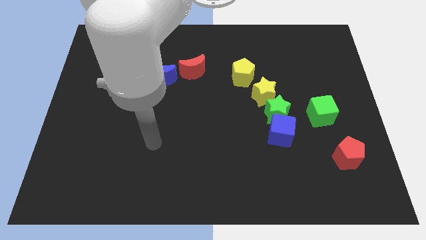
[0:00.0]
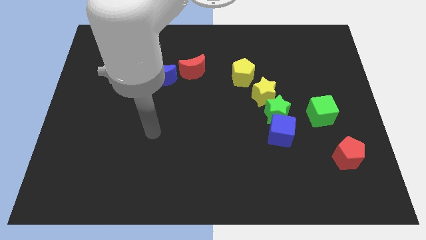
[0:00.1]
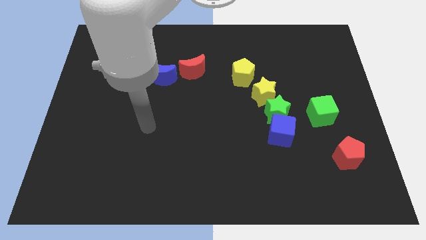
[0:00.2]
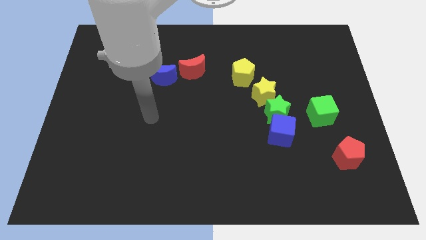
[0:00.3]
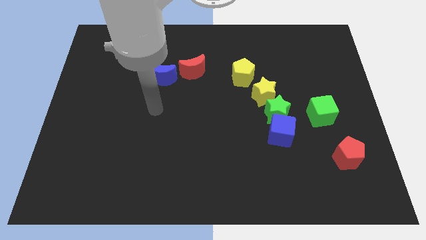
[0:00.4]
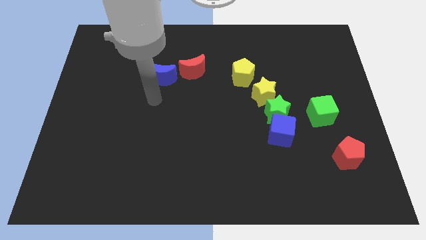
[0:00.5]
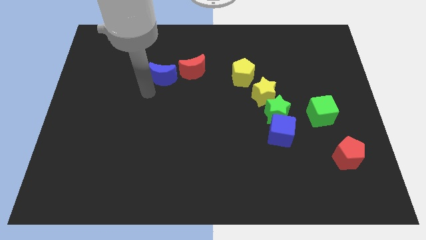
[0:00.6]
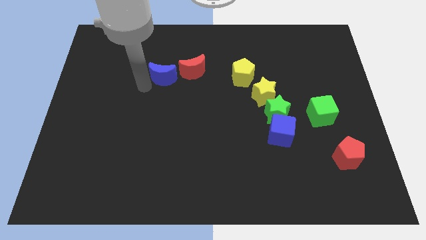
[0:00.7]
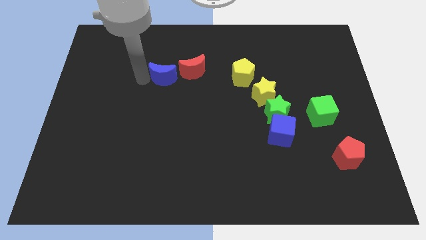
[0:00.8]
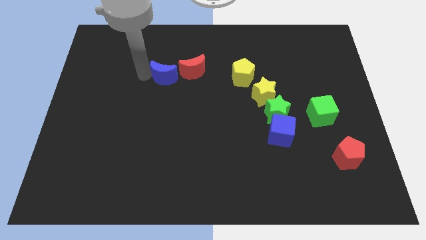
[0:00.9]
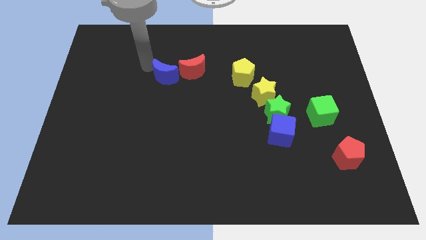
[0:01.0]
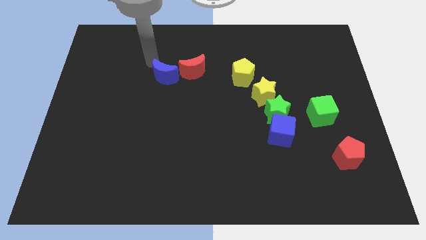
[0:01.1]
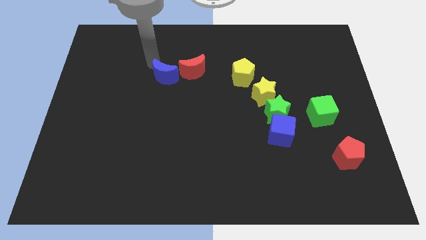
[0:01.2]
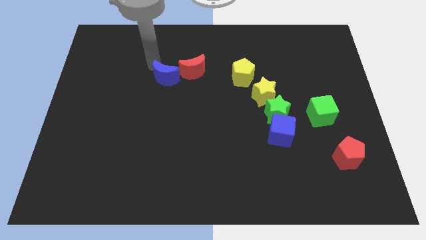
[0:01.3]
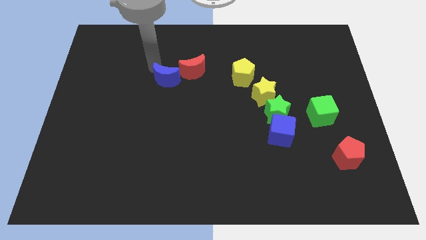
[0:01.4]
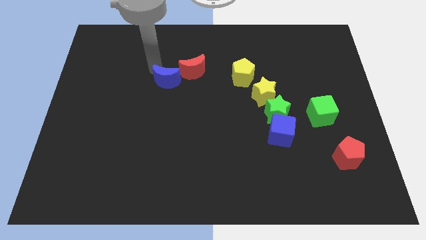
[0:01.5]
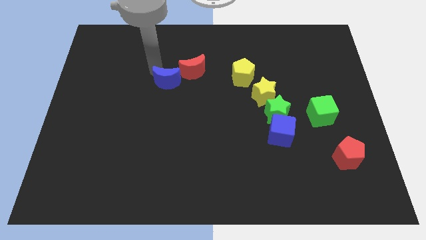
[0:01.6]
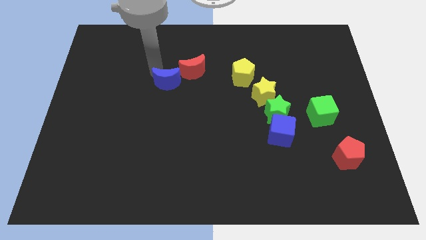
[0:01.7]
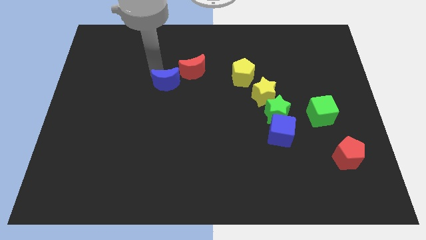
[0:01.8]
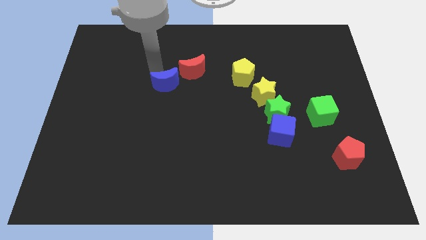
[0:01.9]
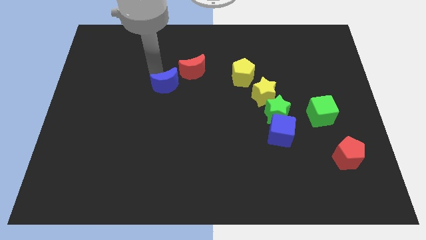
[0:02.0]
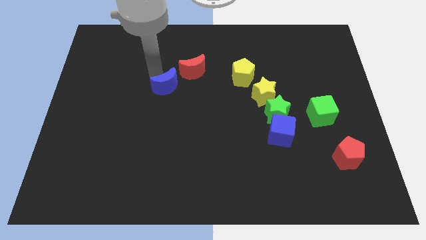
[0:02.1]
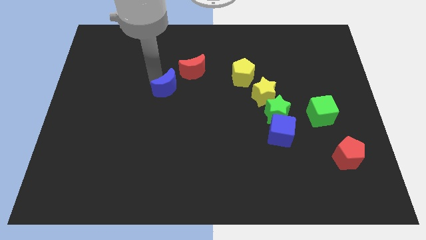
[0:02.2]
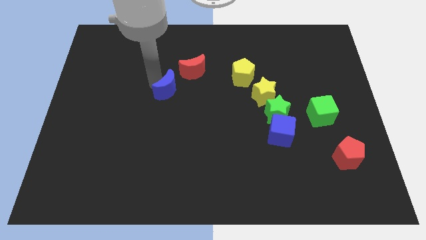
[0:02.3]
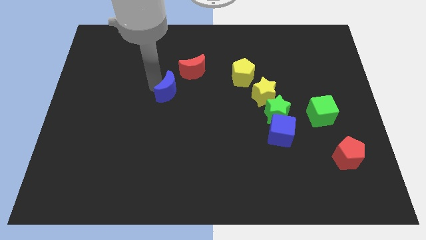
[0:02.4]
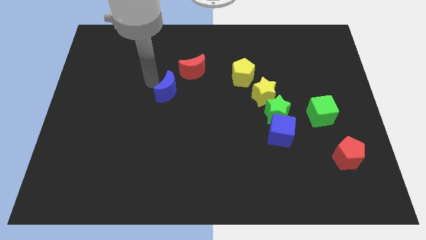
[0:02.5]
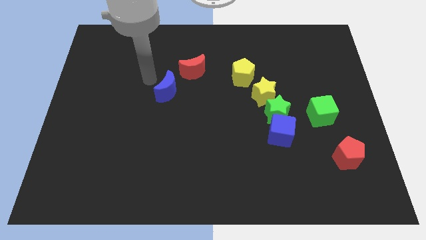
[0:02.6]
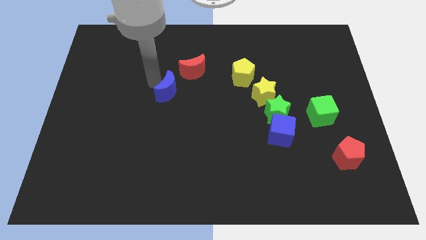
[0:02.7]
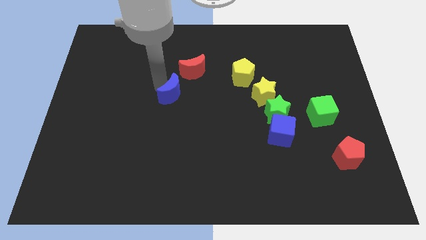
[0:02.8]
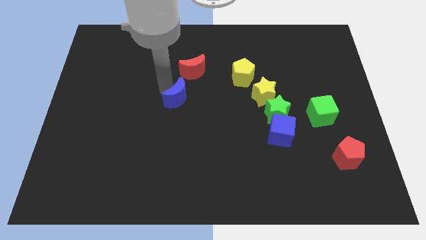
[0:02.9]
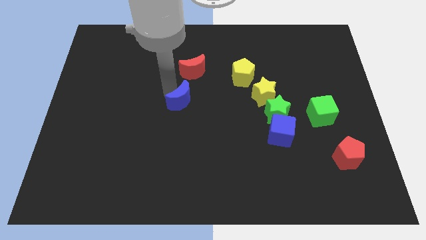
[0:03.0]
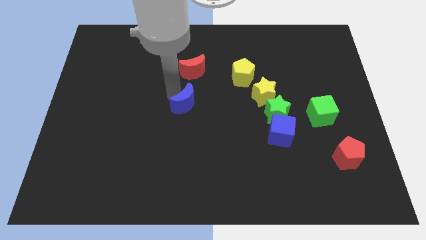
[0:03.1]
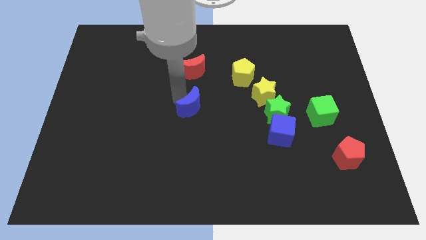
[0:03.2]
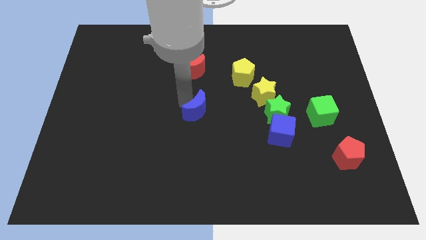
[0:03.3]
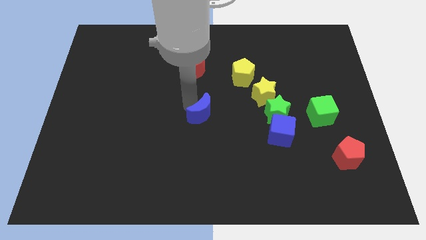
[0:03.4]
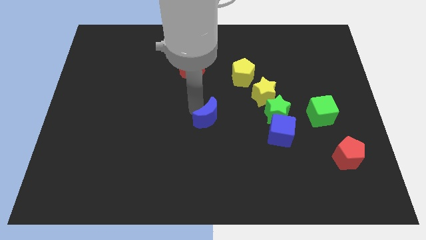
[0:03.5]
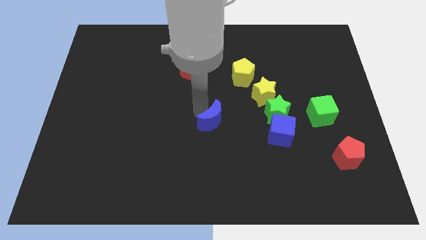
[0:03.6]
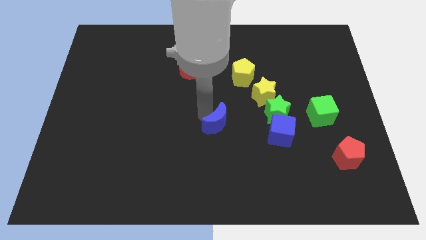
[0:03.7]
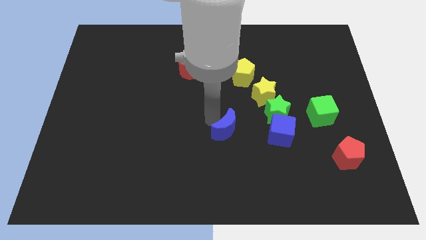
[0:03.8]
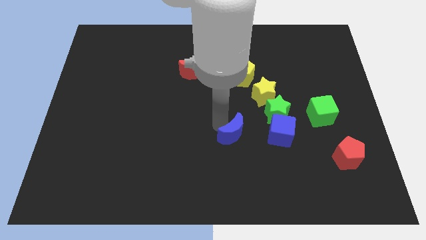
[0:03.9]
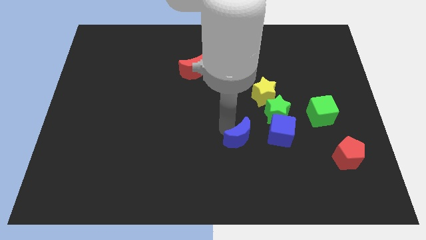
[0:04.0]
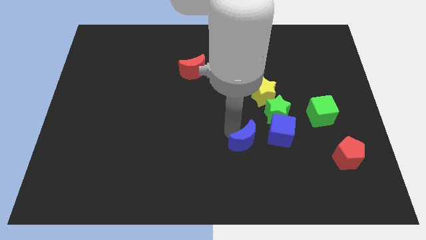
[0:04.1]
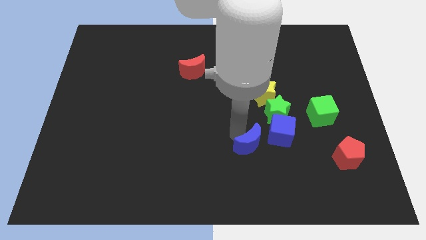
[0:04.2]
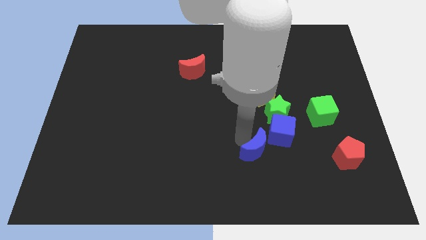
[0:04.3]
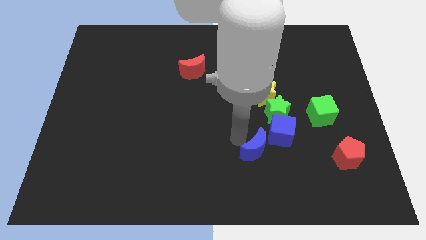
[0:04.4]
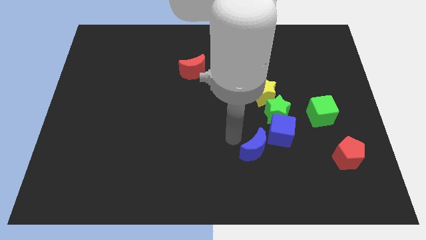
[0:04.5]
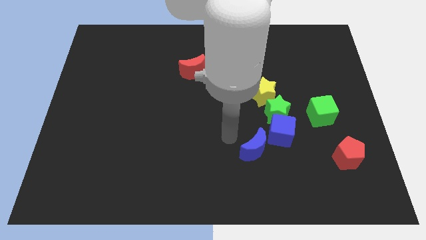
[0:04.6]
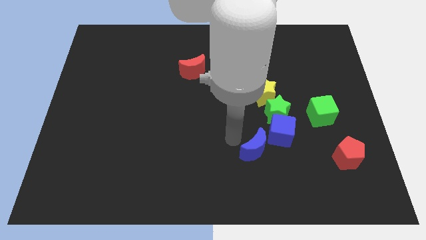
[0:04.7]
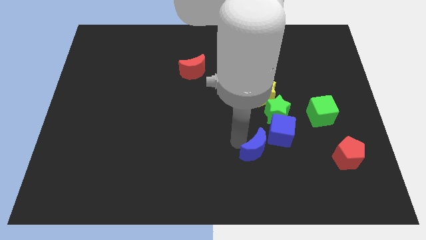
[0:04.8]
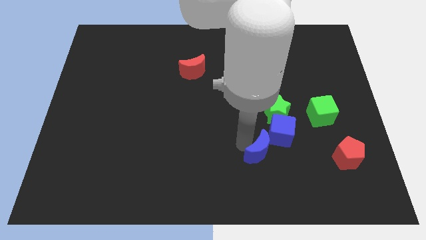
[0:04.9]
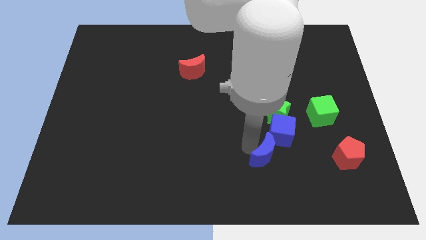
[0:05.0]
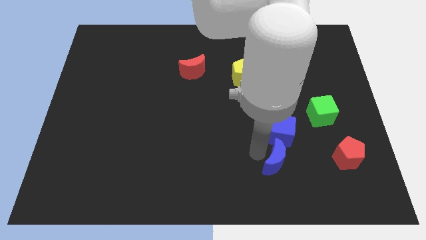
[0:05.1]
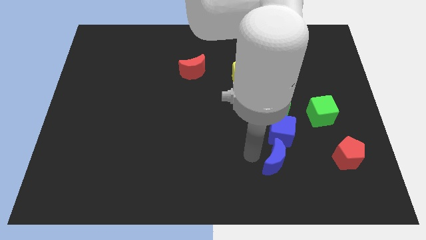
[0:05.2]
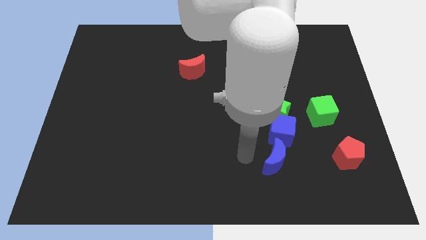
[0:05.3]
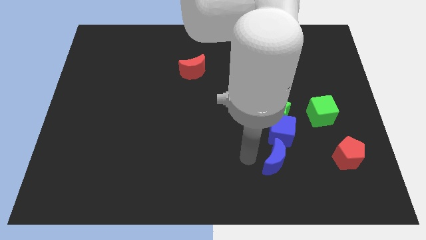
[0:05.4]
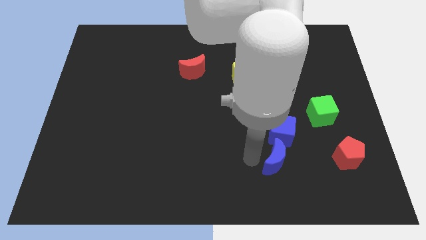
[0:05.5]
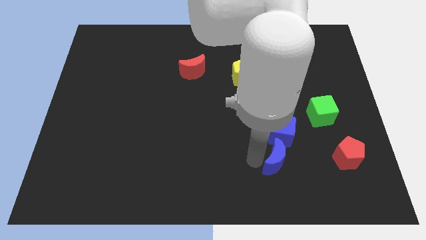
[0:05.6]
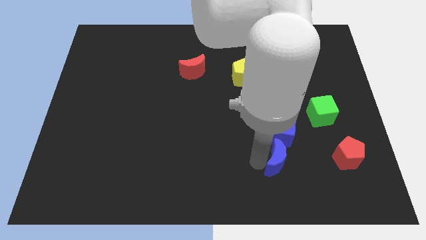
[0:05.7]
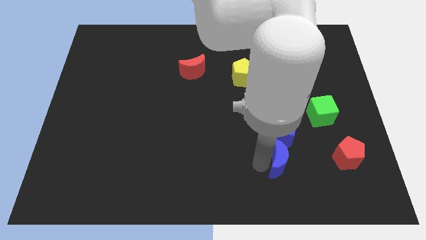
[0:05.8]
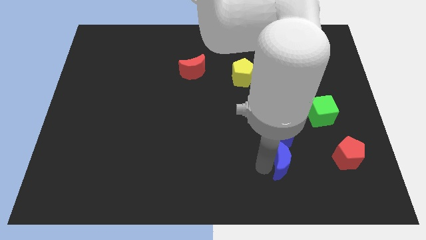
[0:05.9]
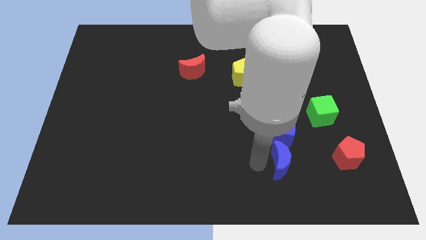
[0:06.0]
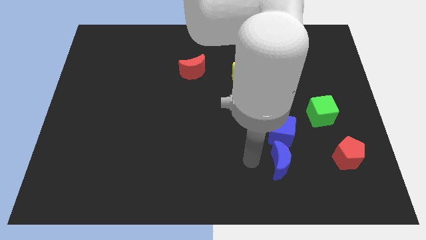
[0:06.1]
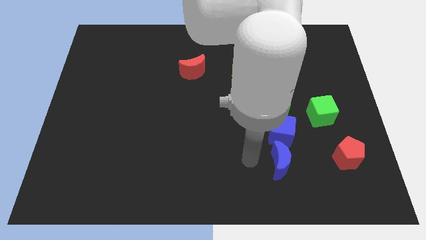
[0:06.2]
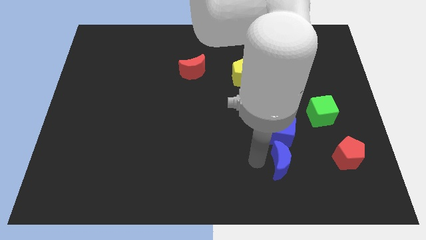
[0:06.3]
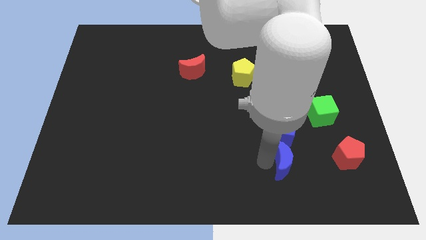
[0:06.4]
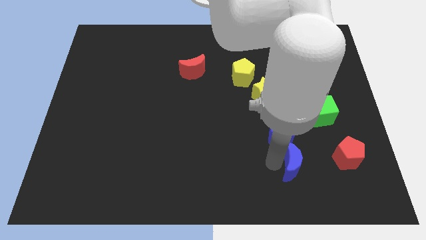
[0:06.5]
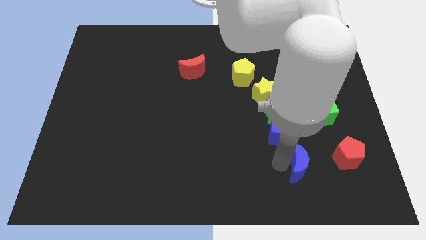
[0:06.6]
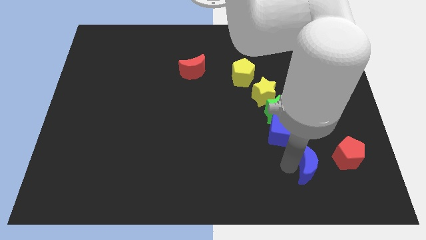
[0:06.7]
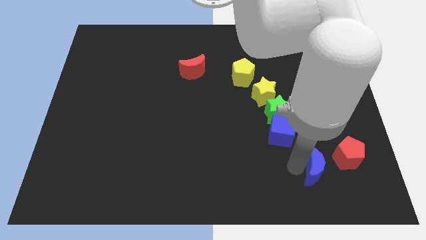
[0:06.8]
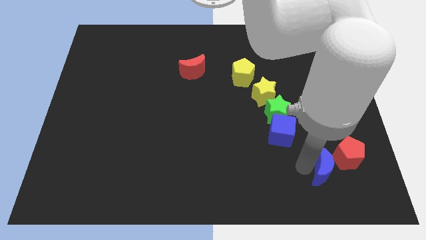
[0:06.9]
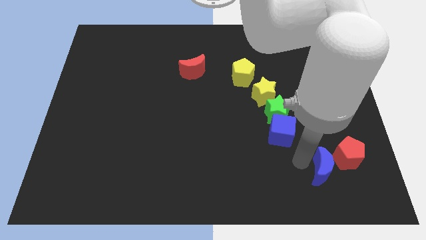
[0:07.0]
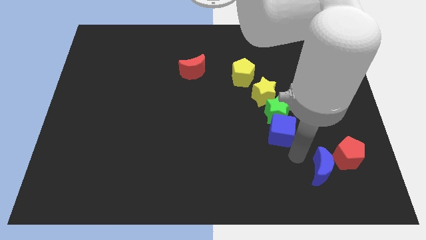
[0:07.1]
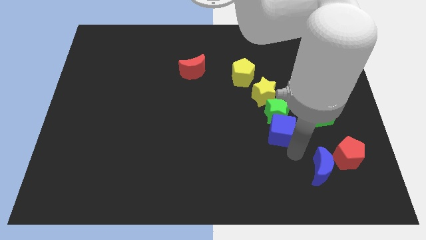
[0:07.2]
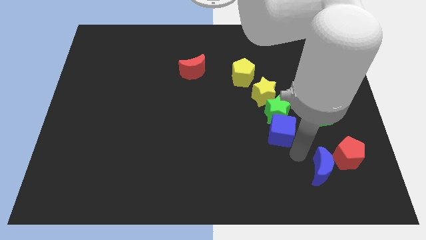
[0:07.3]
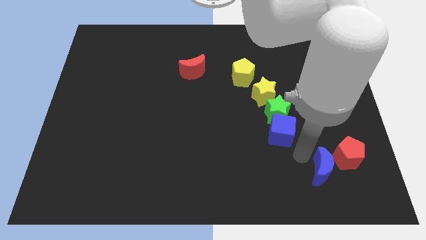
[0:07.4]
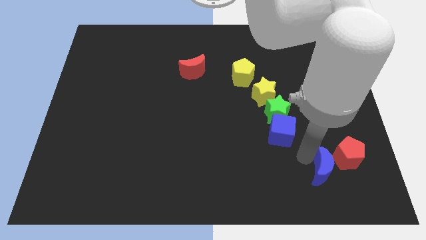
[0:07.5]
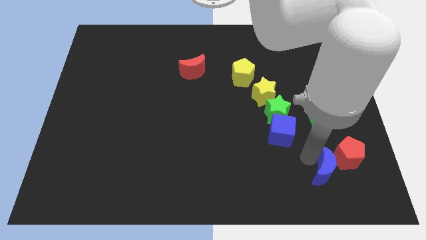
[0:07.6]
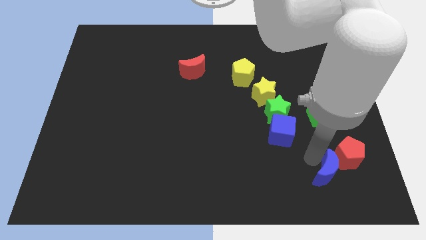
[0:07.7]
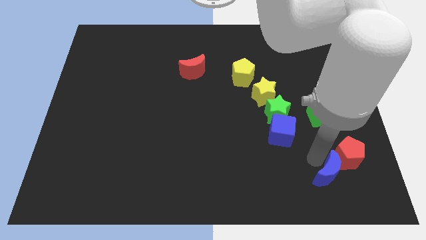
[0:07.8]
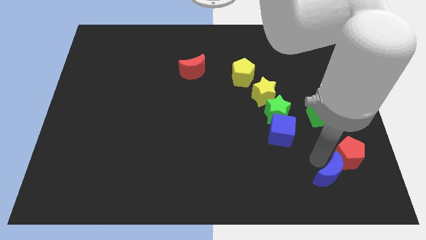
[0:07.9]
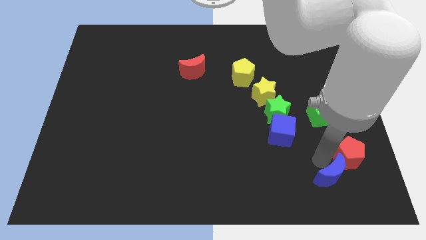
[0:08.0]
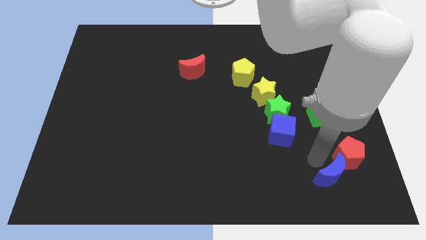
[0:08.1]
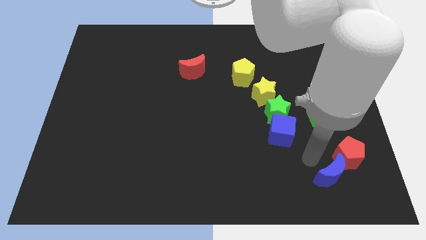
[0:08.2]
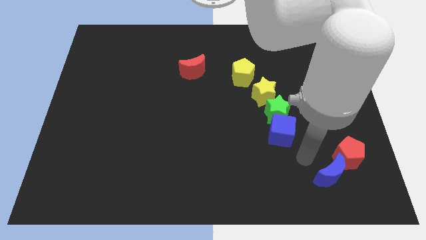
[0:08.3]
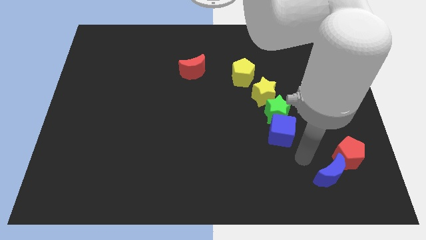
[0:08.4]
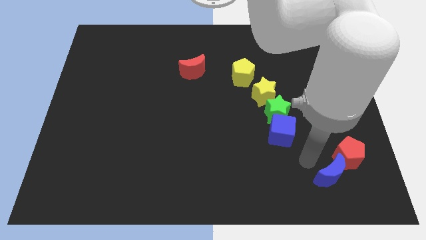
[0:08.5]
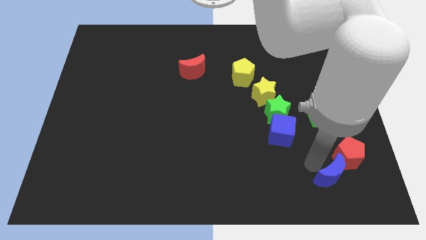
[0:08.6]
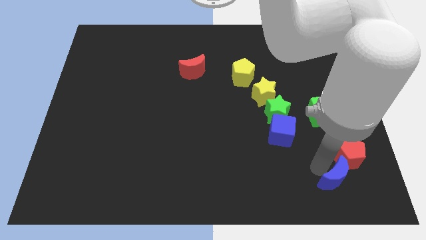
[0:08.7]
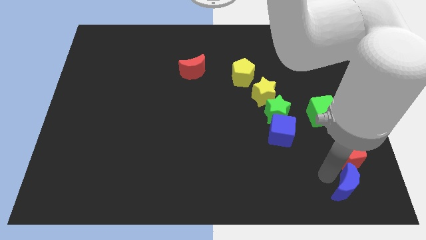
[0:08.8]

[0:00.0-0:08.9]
push the blue moon to the bottom right
